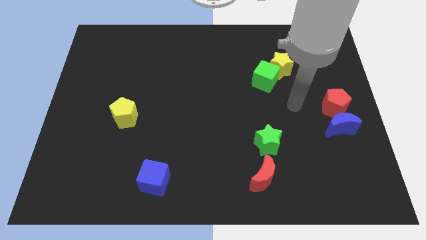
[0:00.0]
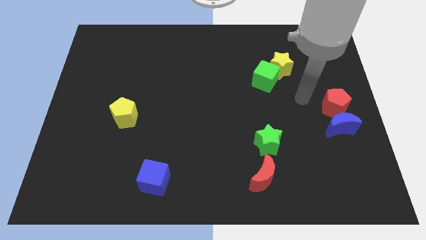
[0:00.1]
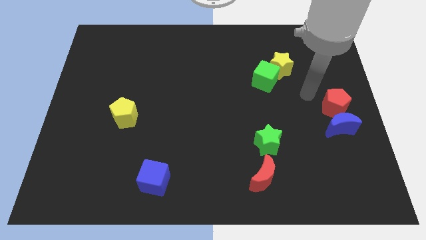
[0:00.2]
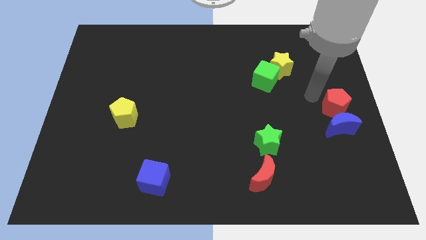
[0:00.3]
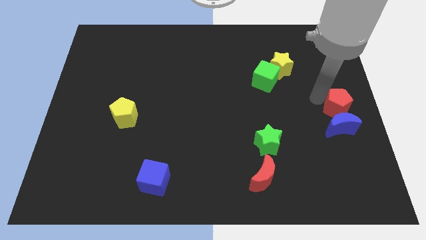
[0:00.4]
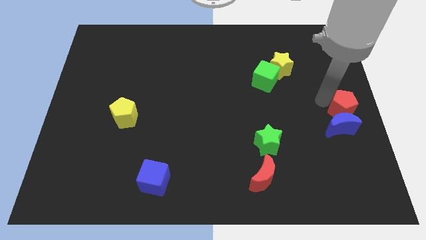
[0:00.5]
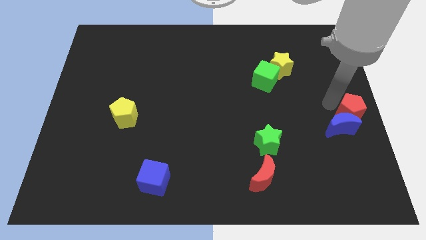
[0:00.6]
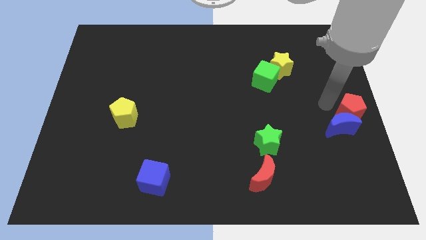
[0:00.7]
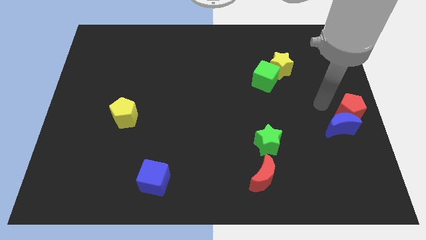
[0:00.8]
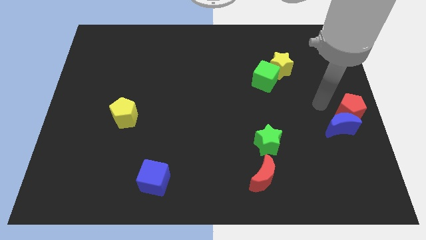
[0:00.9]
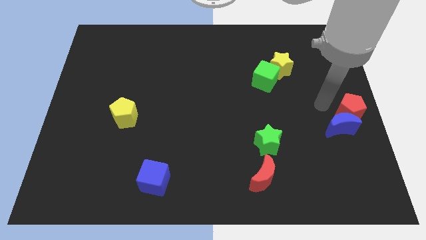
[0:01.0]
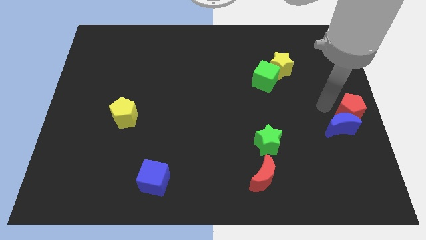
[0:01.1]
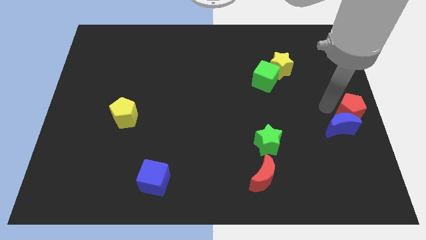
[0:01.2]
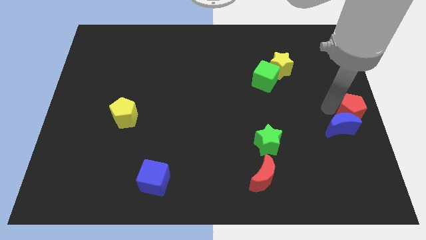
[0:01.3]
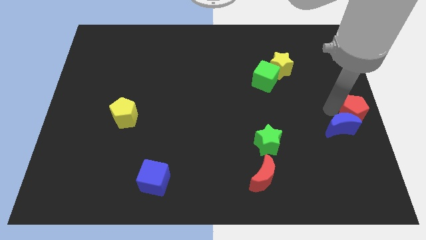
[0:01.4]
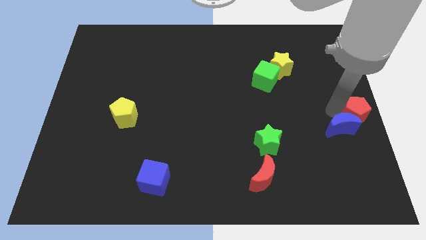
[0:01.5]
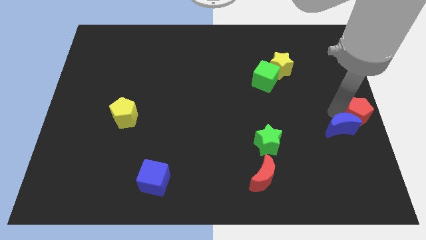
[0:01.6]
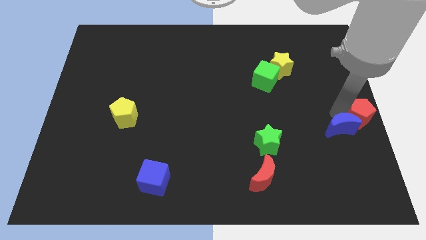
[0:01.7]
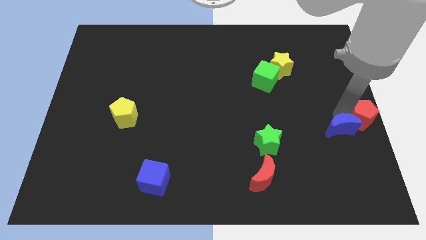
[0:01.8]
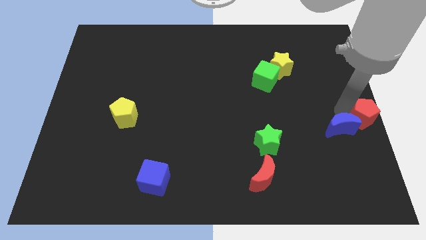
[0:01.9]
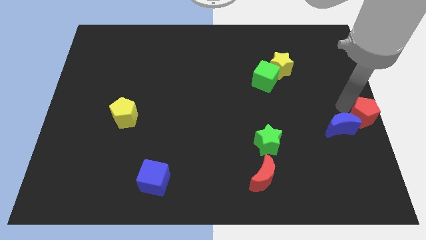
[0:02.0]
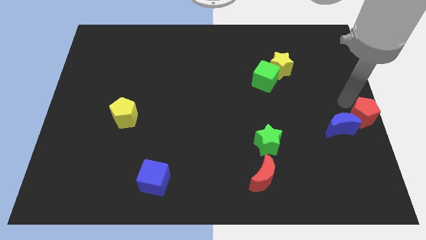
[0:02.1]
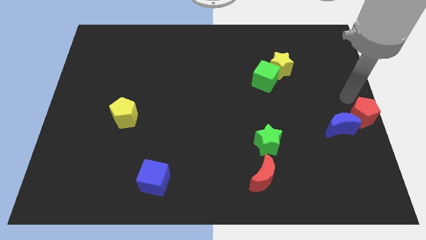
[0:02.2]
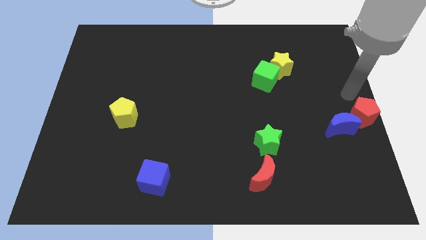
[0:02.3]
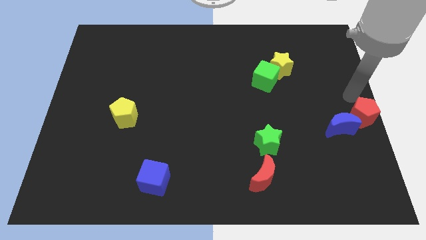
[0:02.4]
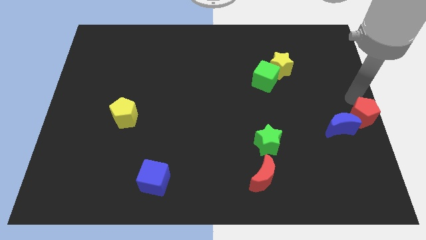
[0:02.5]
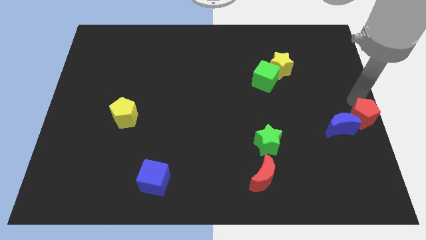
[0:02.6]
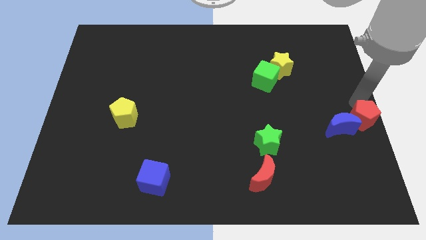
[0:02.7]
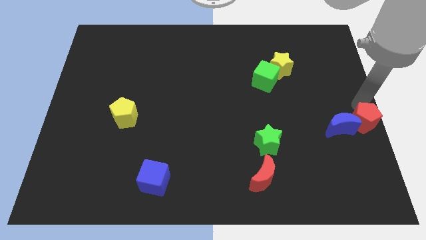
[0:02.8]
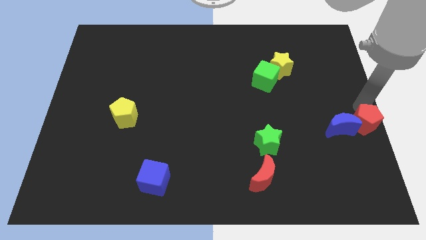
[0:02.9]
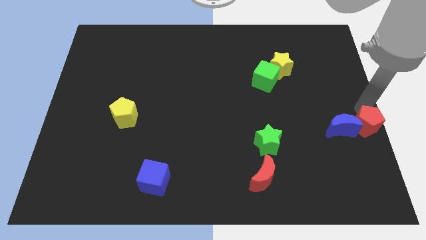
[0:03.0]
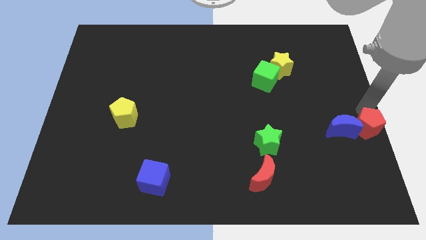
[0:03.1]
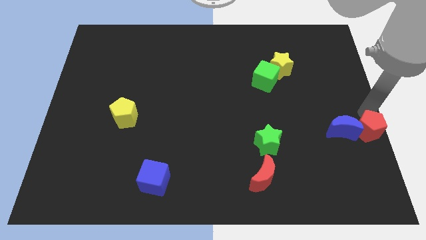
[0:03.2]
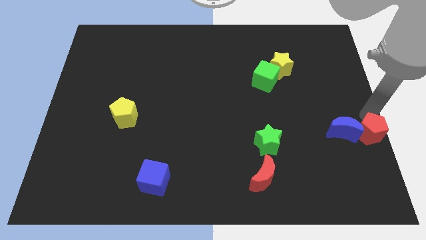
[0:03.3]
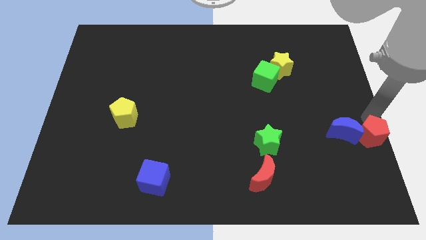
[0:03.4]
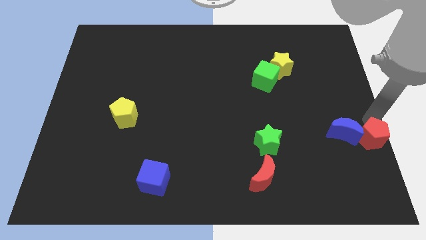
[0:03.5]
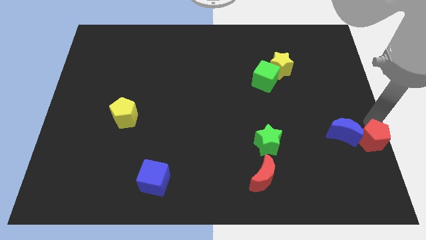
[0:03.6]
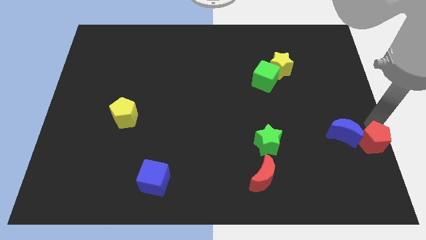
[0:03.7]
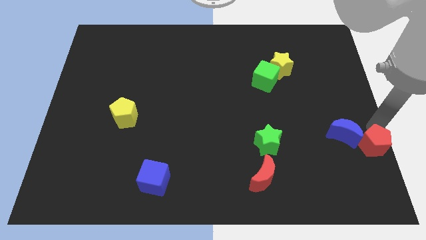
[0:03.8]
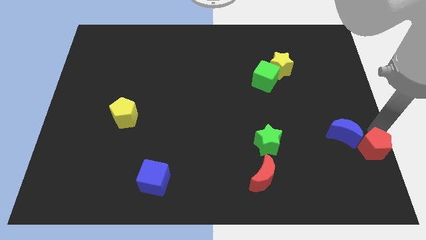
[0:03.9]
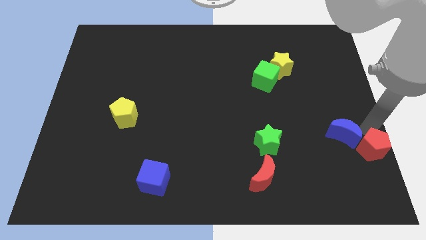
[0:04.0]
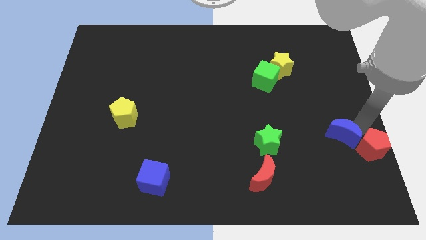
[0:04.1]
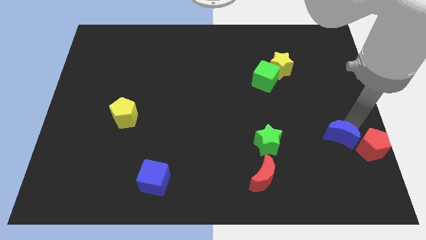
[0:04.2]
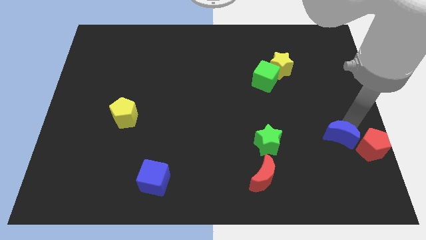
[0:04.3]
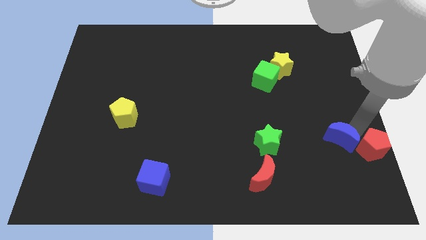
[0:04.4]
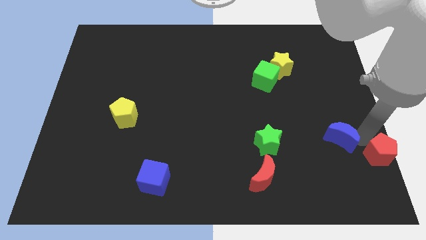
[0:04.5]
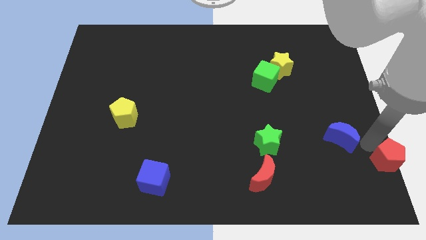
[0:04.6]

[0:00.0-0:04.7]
put the red pentagon to the bottom right corner

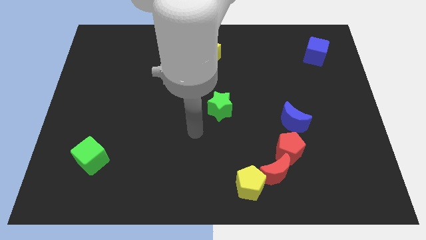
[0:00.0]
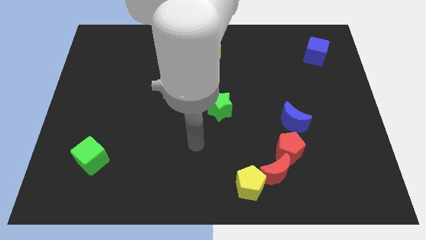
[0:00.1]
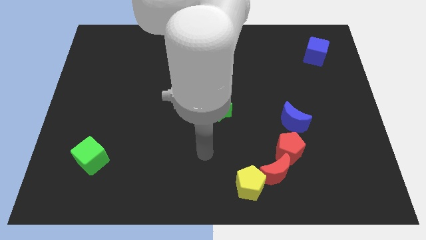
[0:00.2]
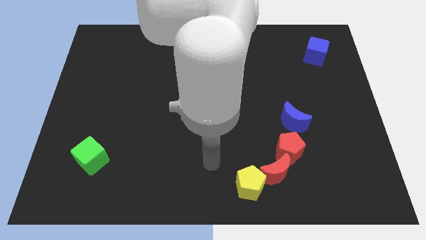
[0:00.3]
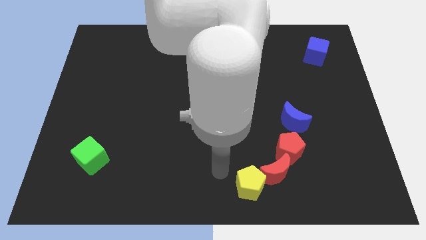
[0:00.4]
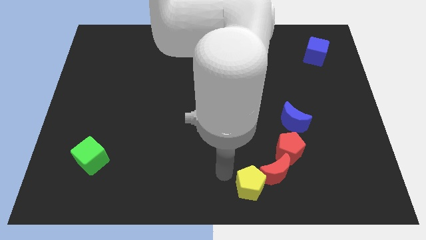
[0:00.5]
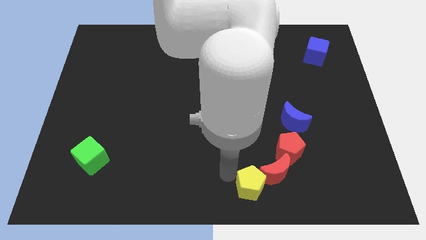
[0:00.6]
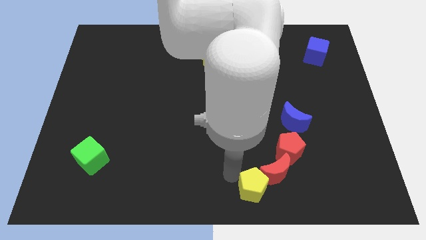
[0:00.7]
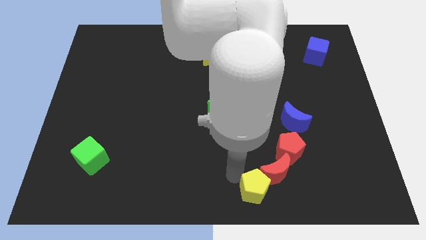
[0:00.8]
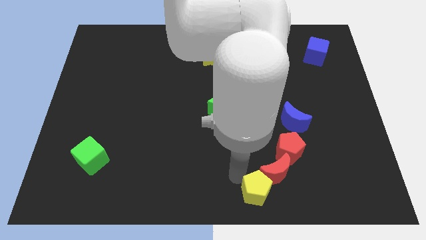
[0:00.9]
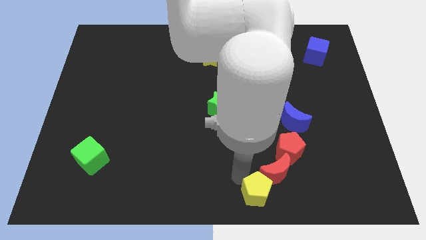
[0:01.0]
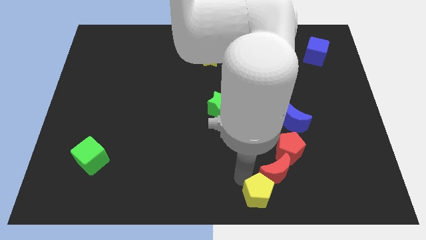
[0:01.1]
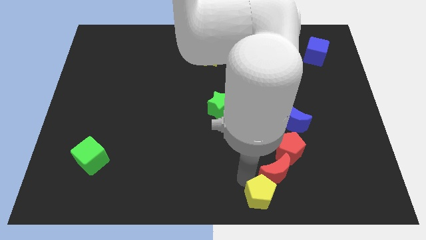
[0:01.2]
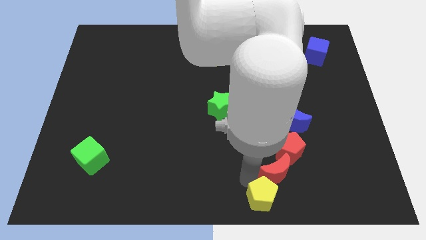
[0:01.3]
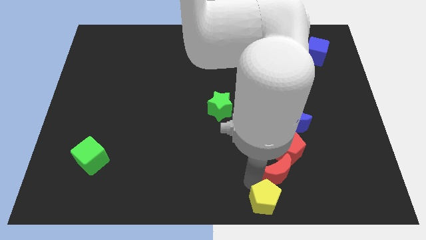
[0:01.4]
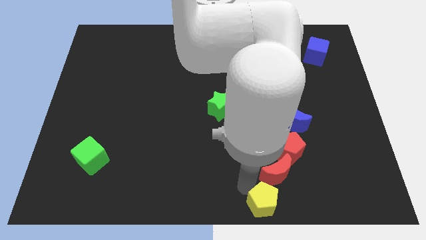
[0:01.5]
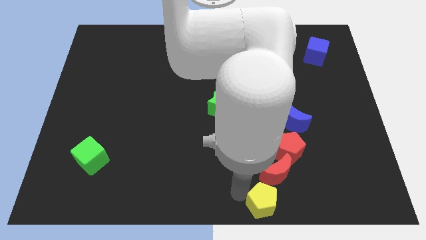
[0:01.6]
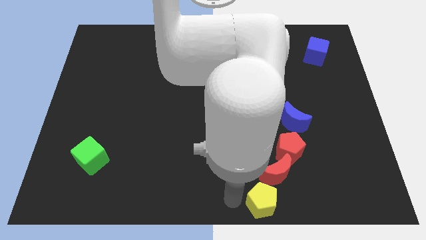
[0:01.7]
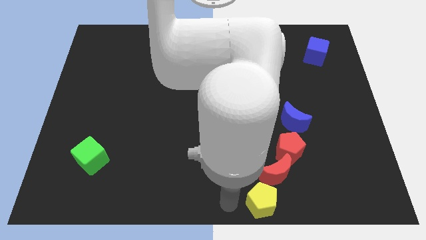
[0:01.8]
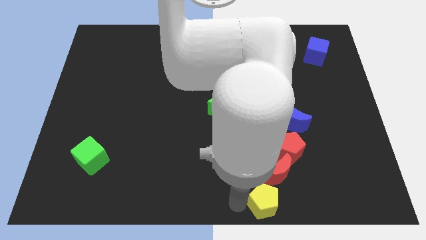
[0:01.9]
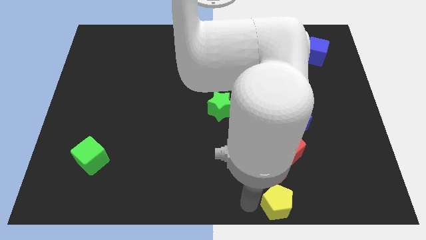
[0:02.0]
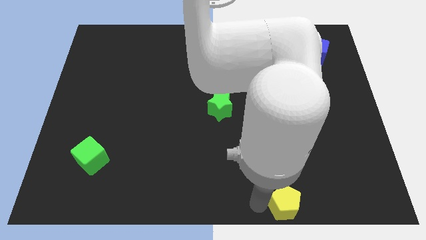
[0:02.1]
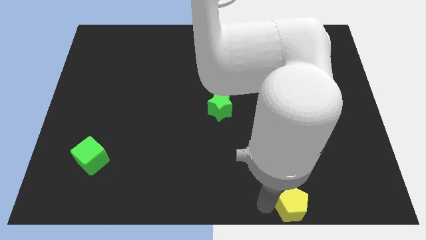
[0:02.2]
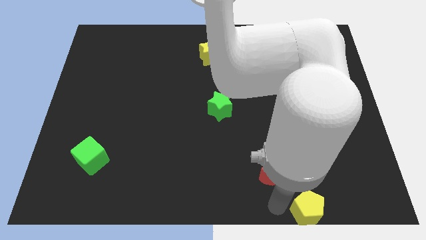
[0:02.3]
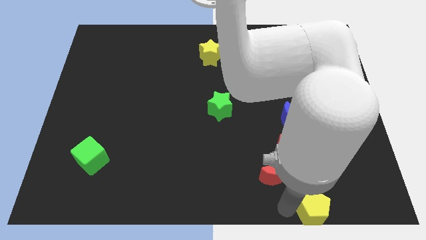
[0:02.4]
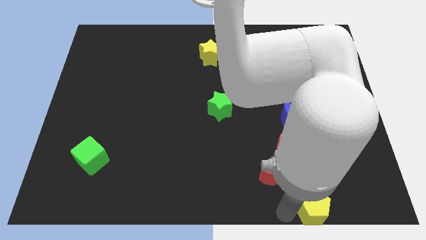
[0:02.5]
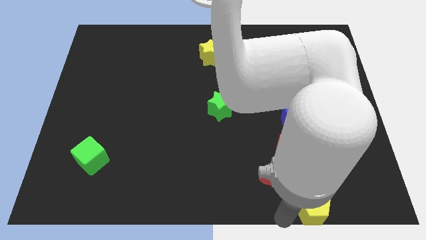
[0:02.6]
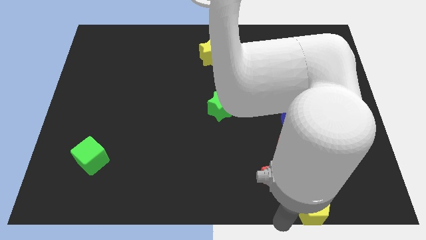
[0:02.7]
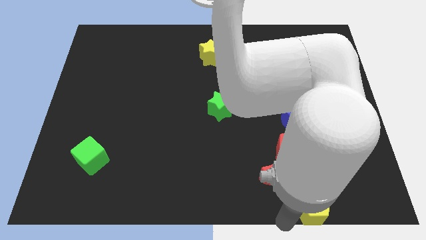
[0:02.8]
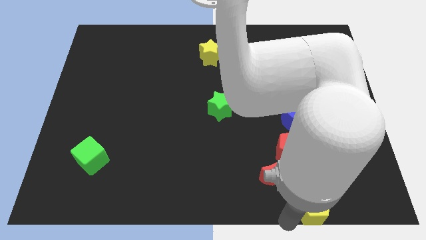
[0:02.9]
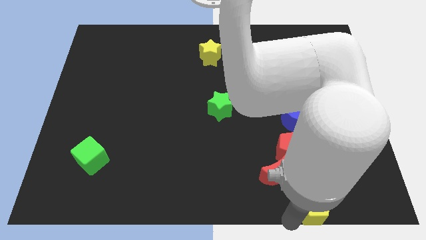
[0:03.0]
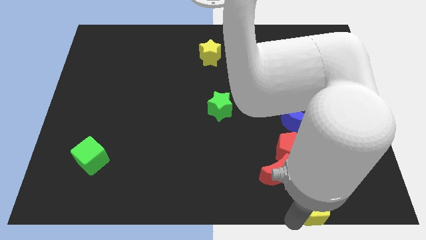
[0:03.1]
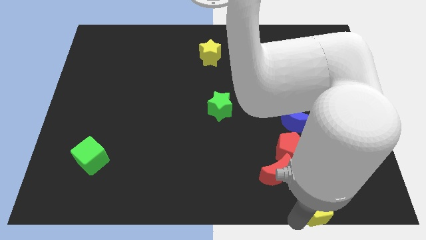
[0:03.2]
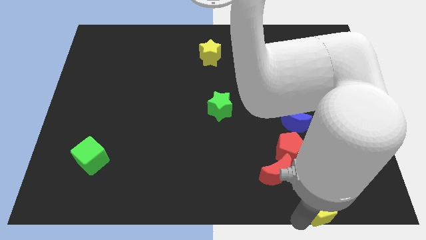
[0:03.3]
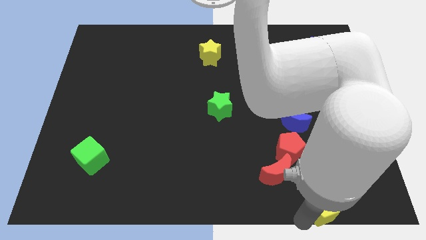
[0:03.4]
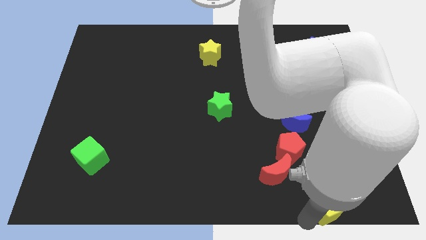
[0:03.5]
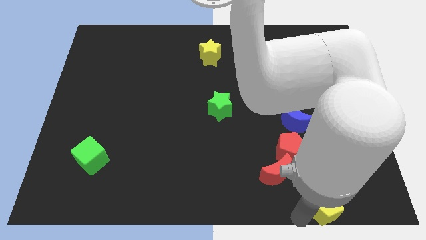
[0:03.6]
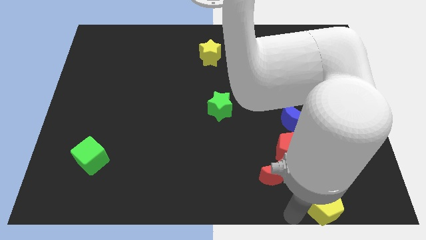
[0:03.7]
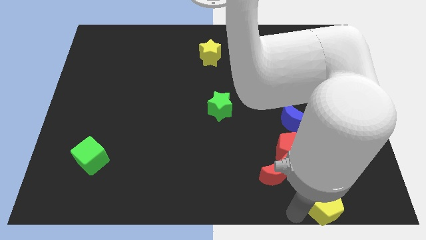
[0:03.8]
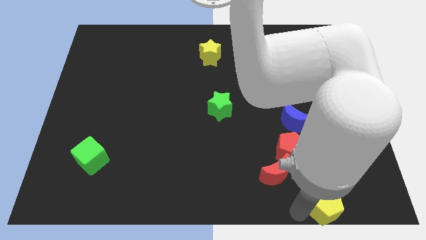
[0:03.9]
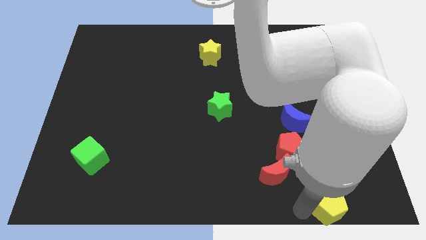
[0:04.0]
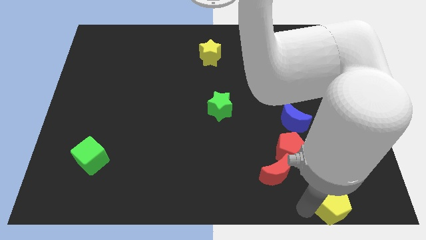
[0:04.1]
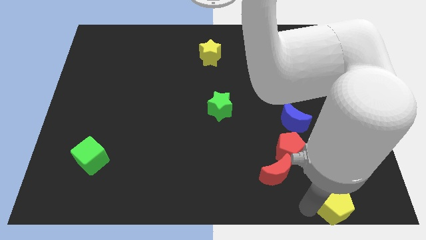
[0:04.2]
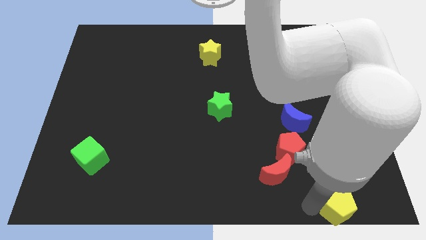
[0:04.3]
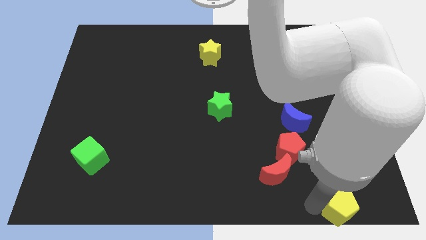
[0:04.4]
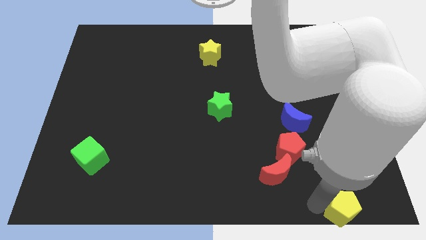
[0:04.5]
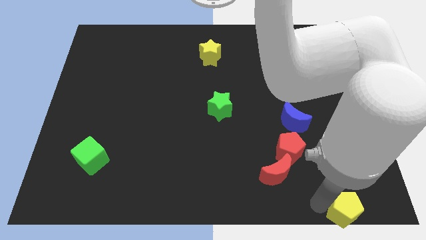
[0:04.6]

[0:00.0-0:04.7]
push the yellow pentagon to the lower right corner
